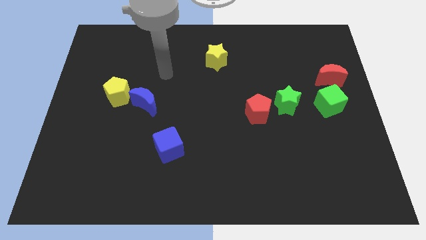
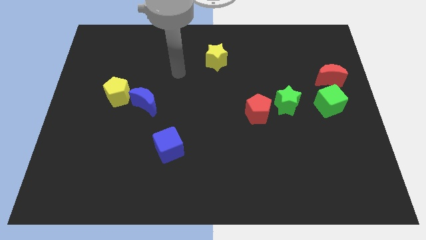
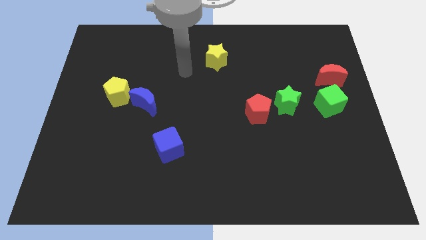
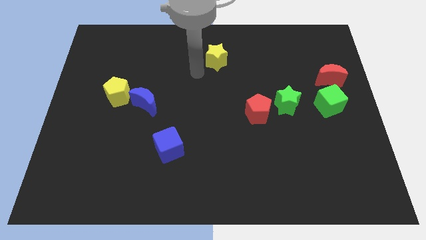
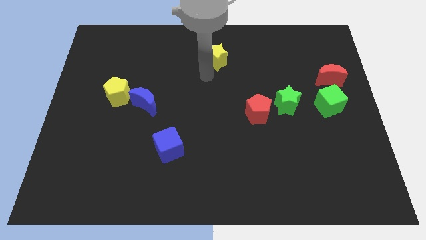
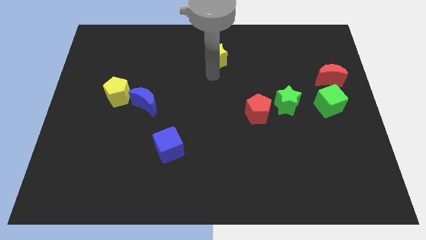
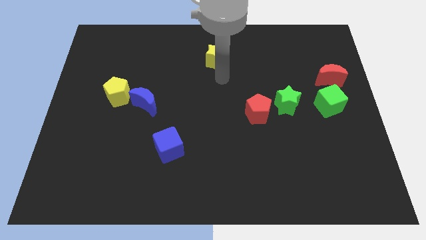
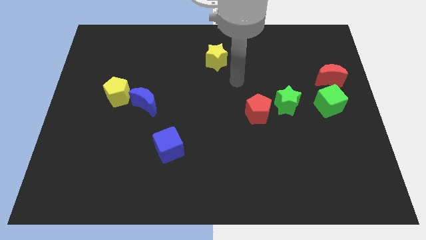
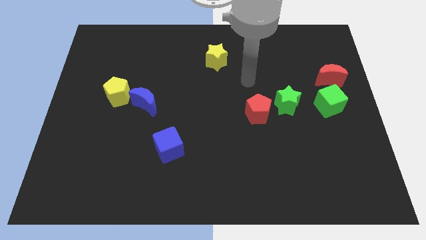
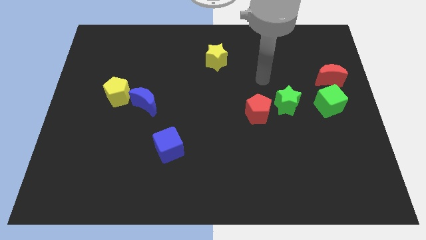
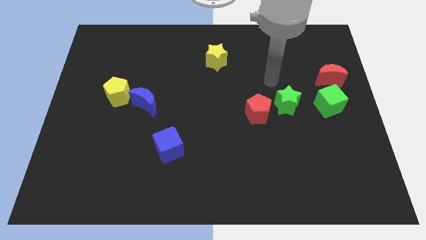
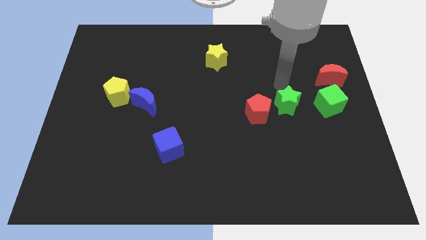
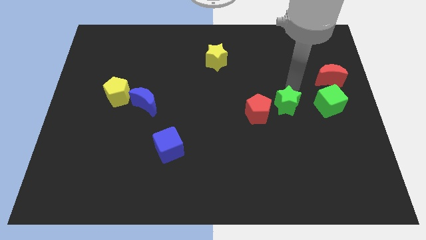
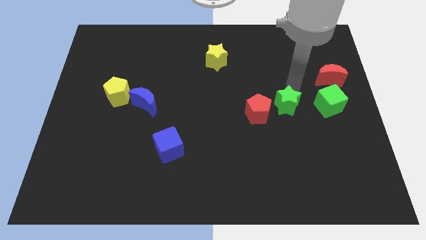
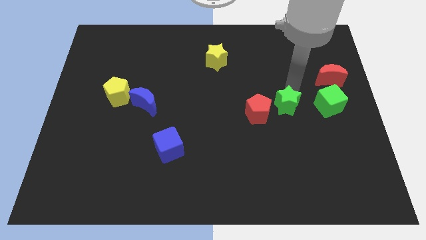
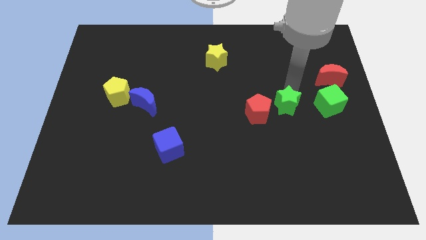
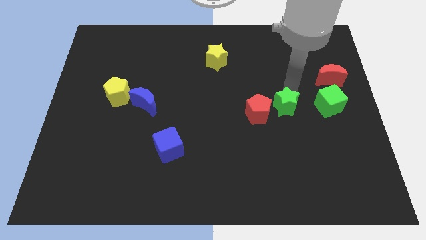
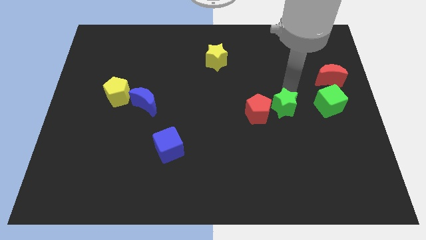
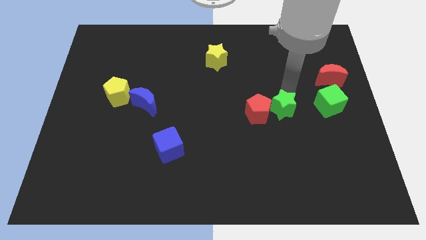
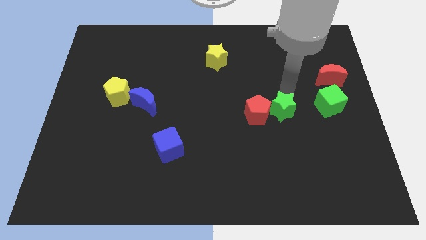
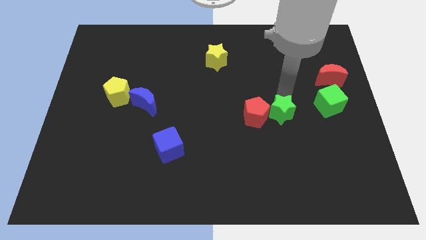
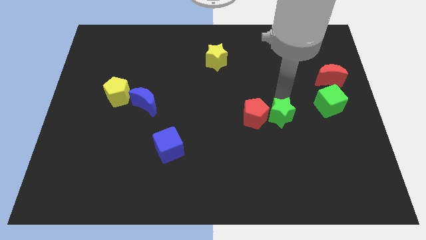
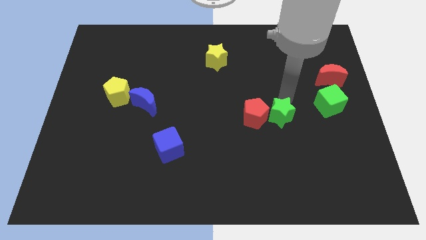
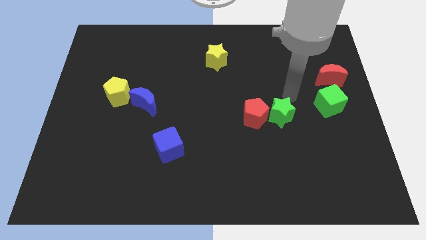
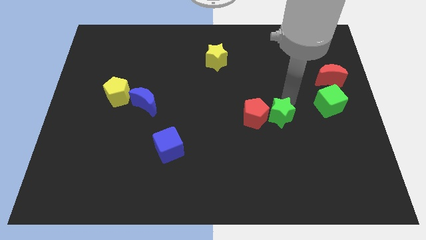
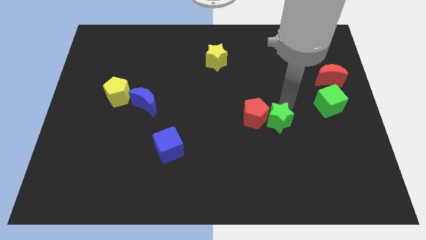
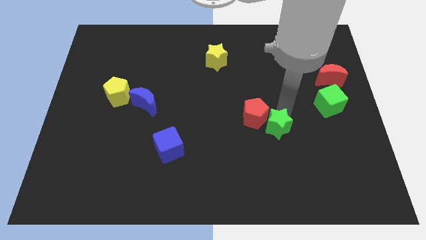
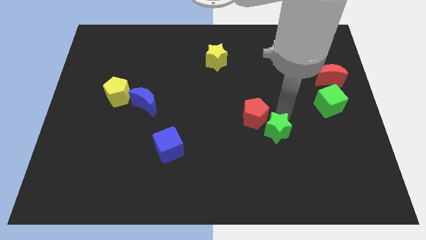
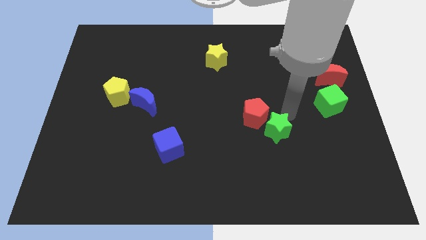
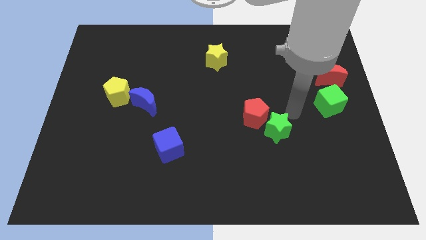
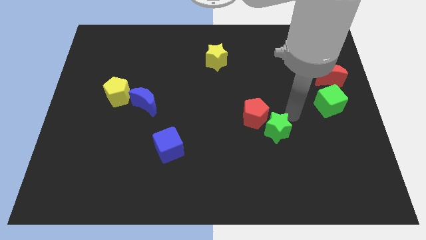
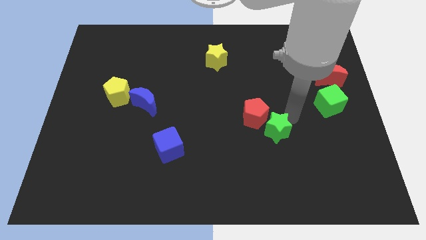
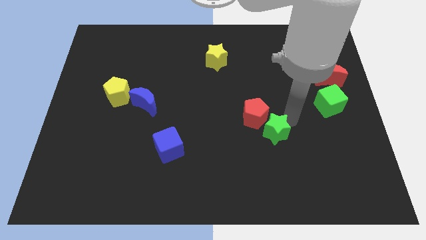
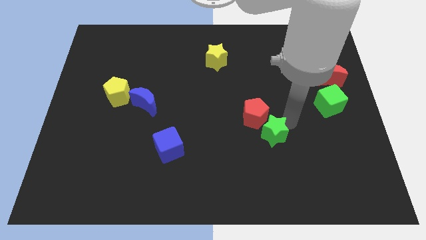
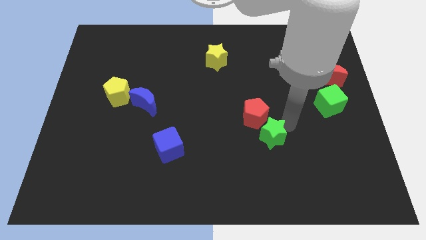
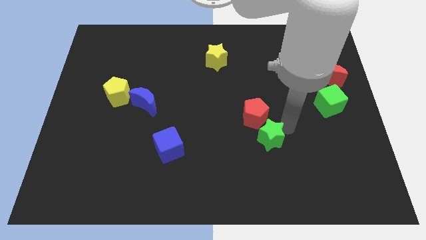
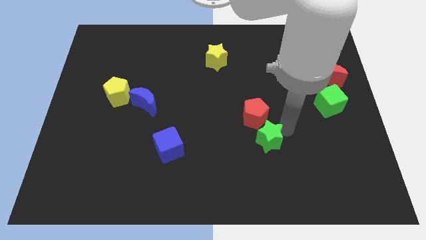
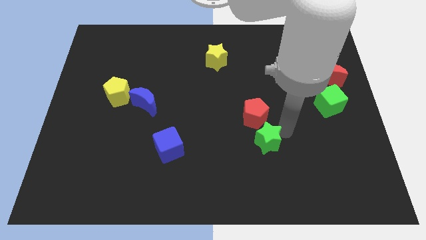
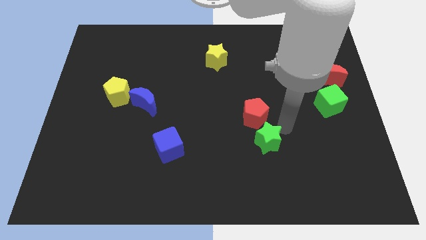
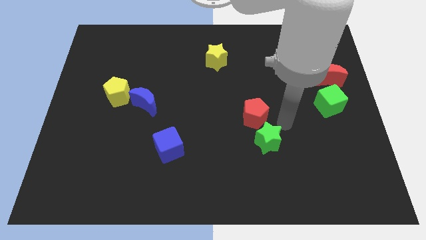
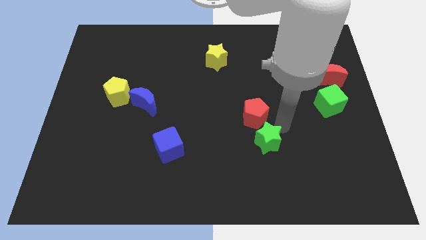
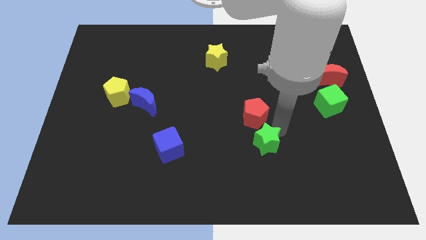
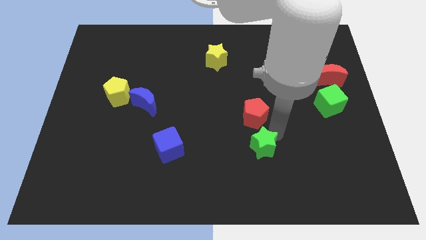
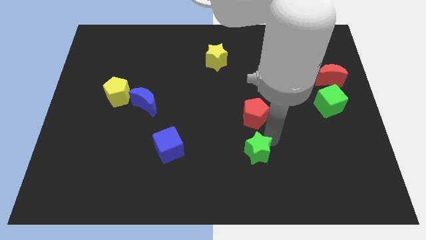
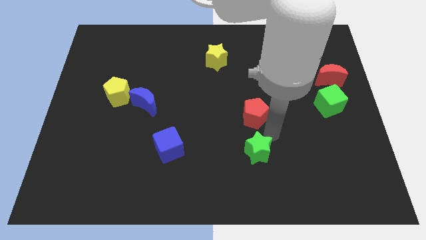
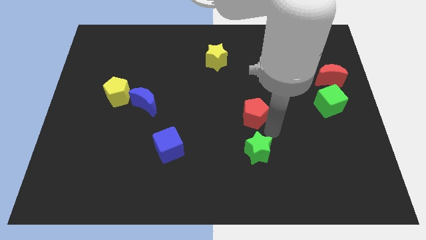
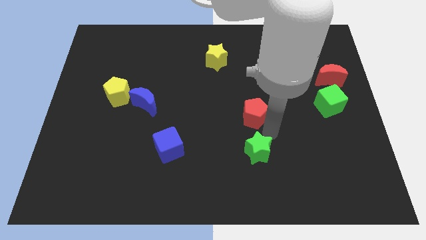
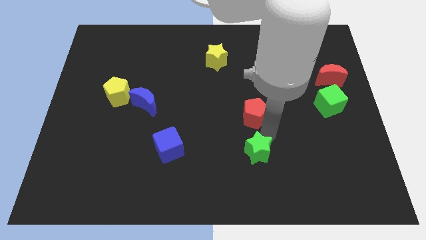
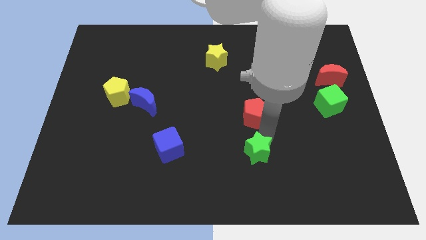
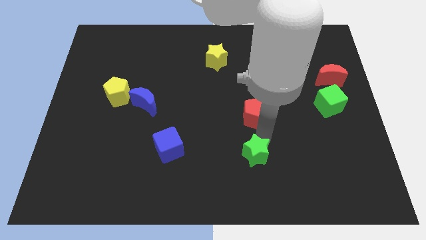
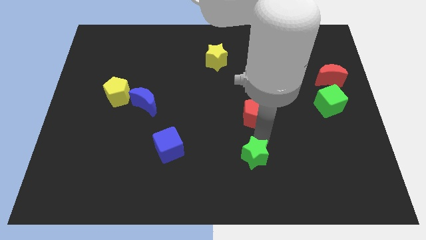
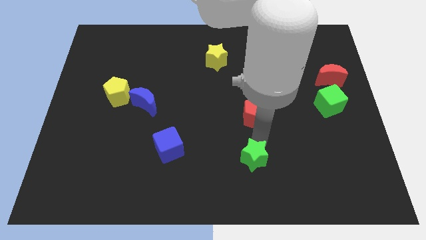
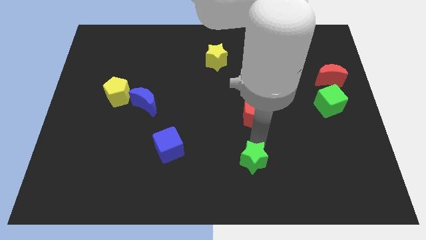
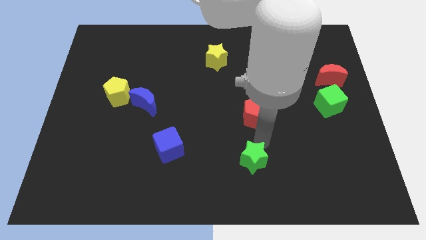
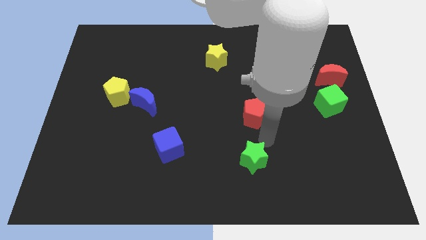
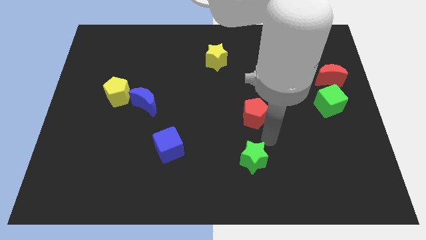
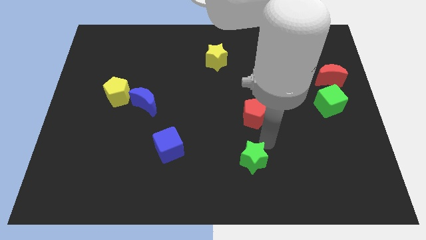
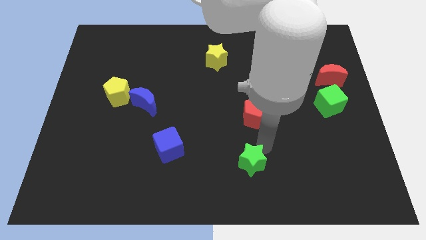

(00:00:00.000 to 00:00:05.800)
push the green star to the bottom

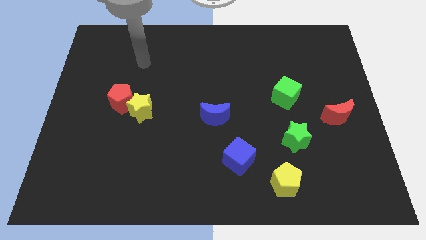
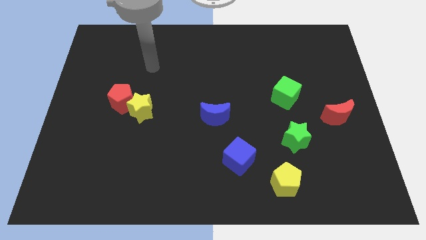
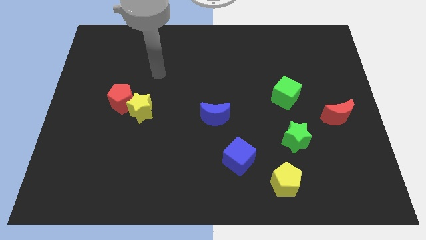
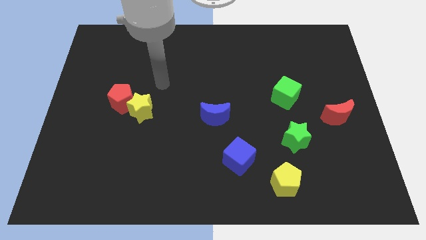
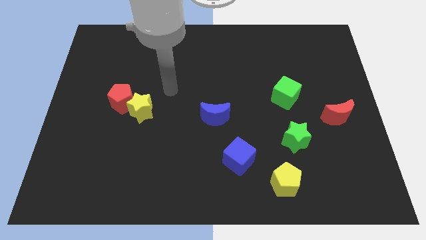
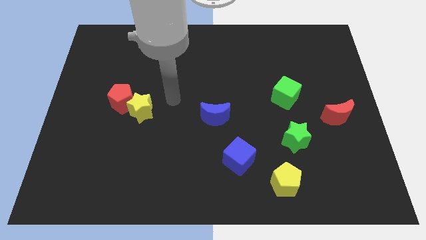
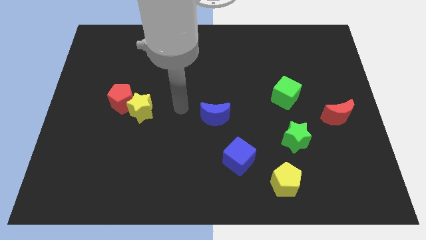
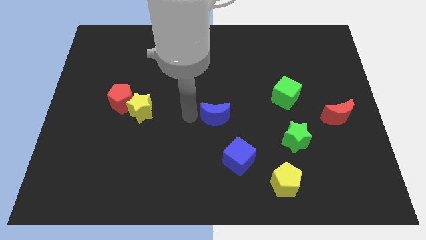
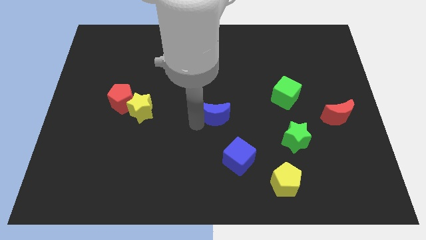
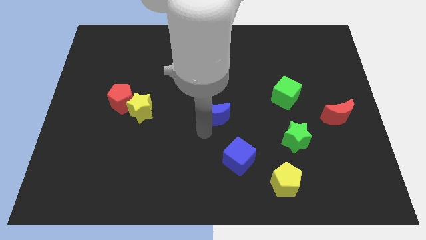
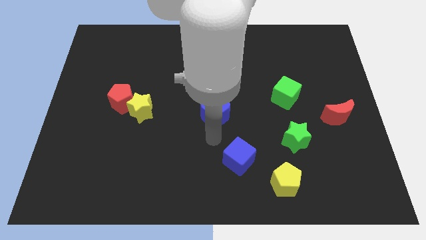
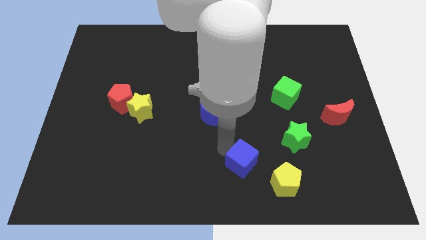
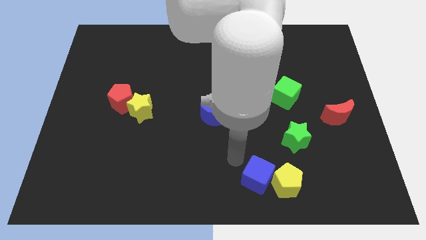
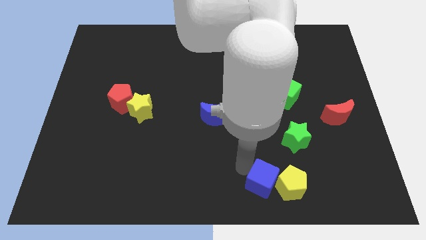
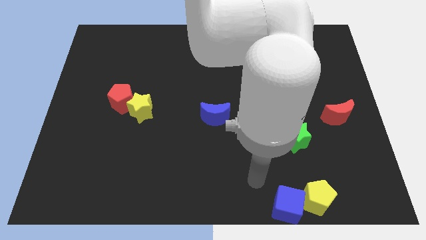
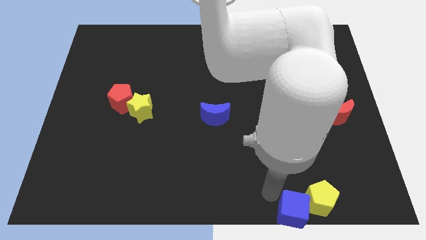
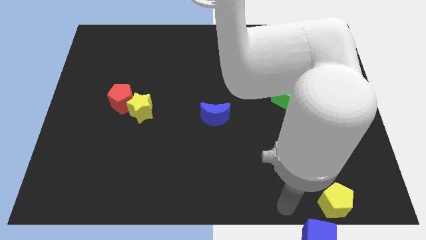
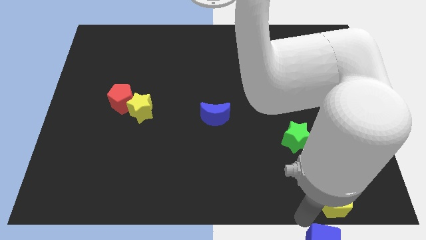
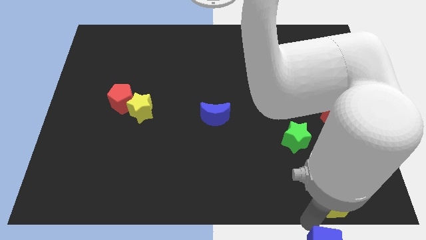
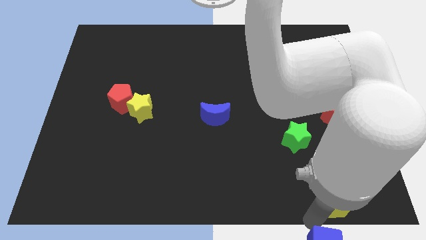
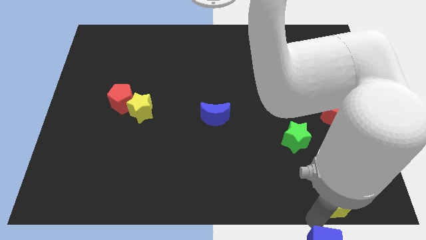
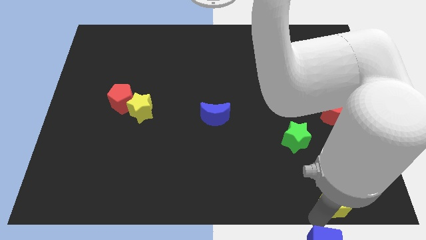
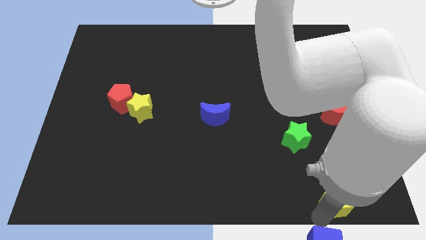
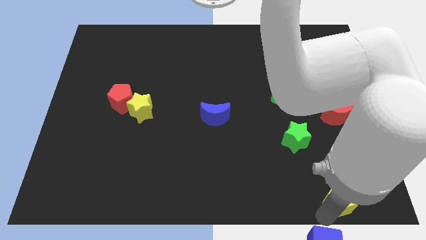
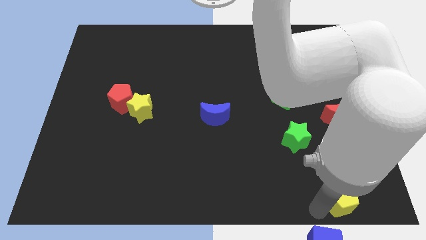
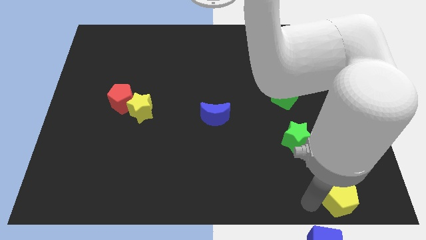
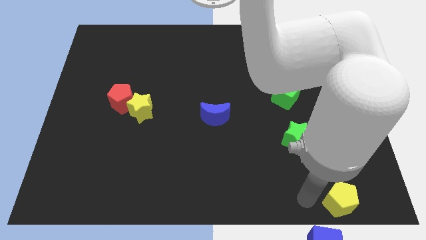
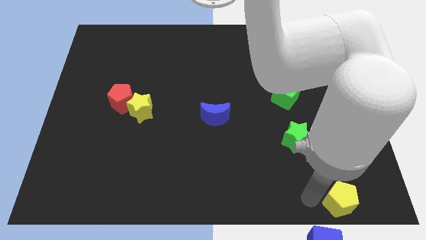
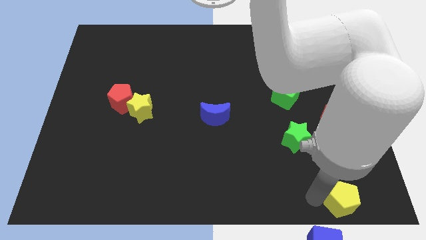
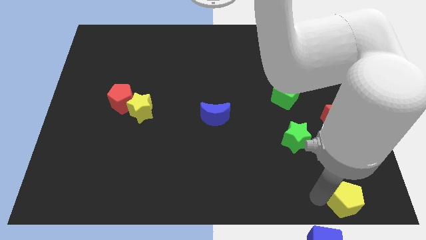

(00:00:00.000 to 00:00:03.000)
push the yellow pentagon to the bottom right
